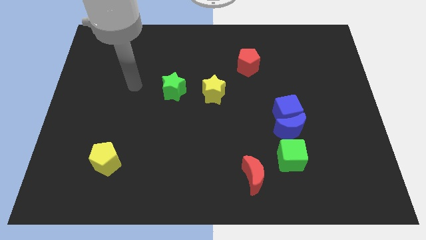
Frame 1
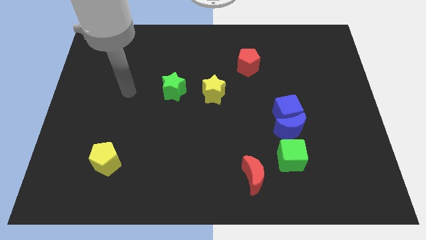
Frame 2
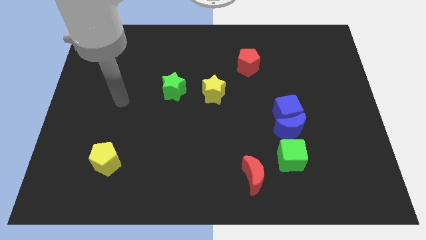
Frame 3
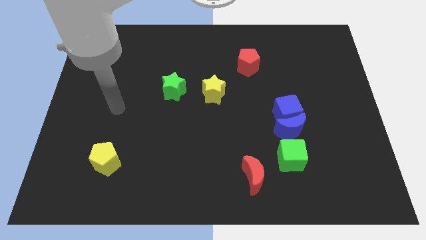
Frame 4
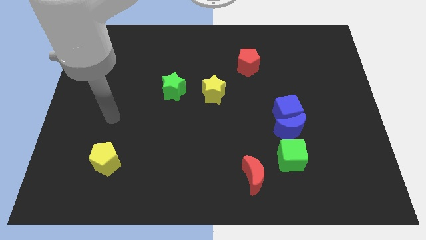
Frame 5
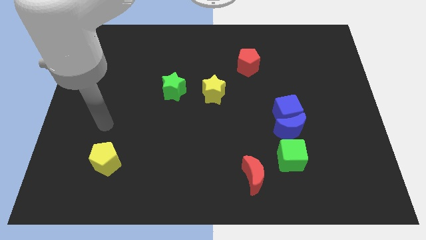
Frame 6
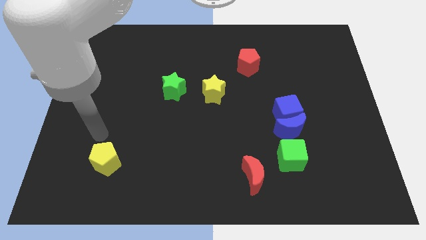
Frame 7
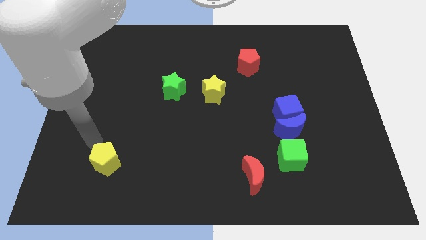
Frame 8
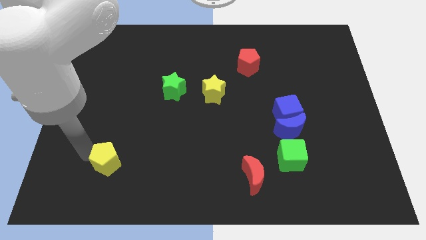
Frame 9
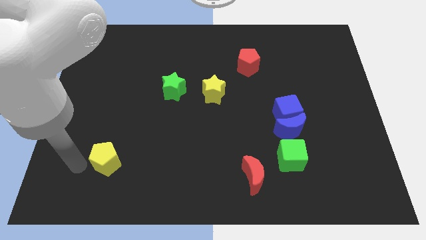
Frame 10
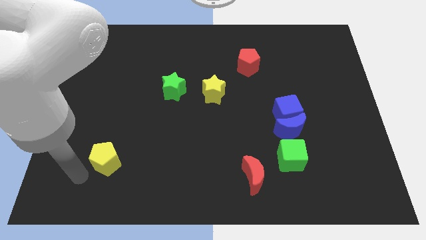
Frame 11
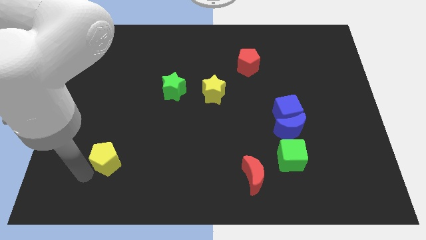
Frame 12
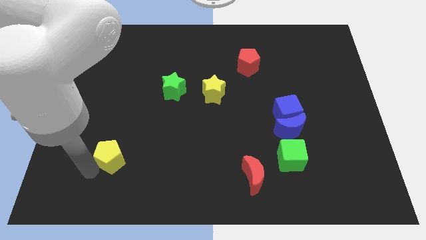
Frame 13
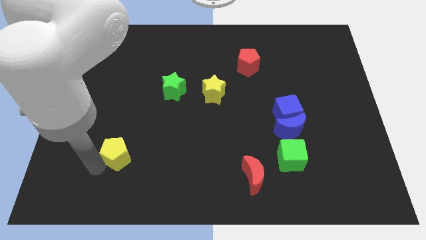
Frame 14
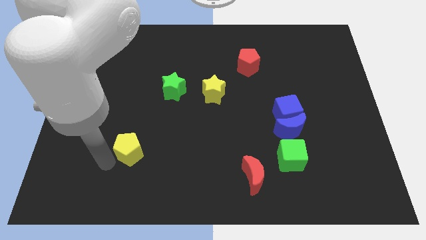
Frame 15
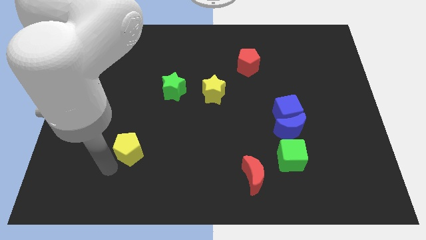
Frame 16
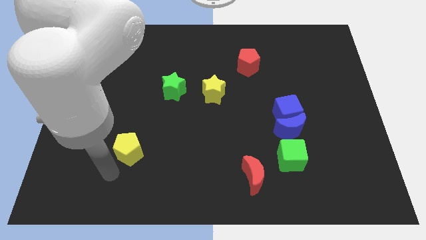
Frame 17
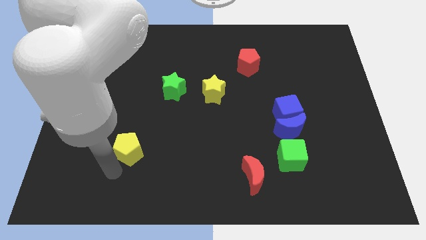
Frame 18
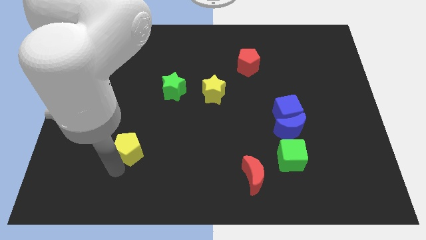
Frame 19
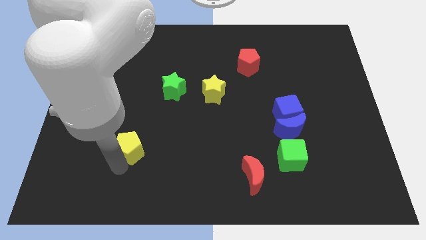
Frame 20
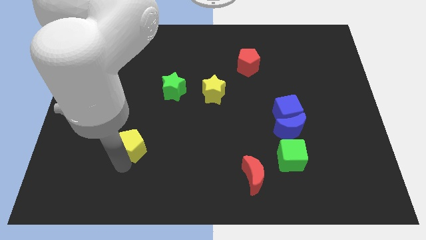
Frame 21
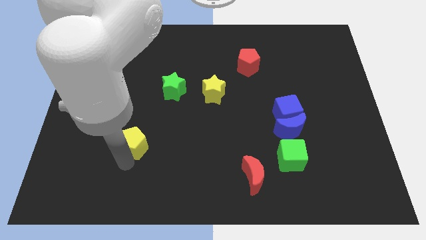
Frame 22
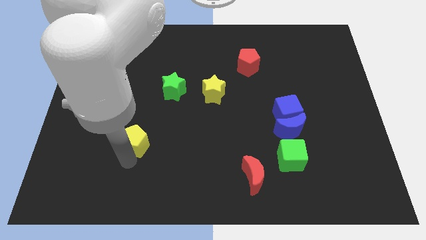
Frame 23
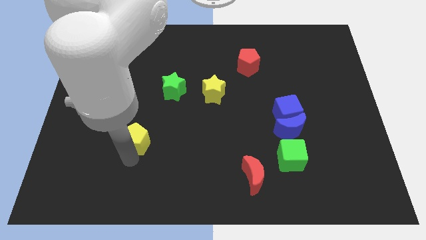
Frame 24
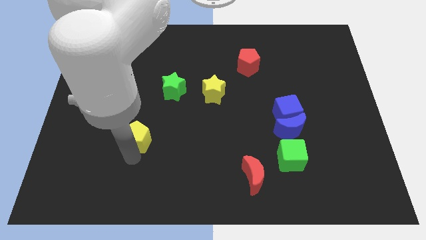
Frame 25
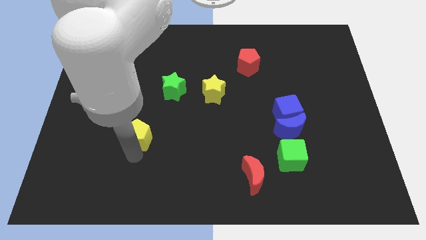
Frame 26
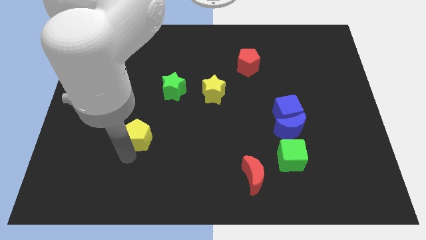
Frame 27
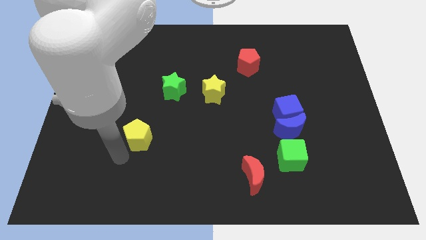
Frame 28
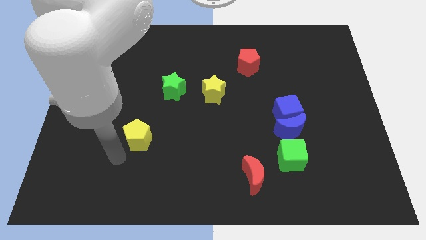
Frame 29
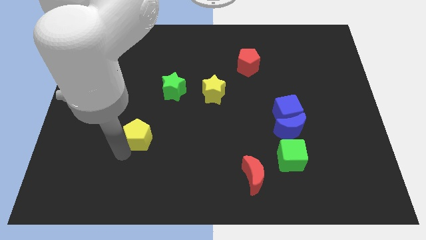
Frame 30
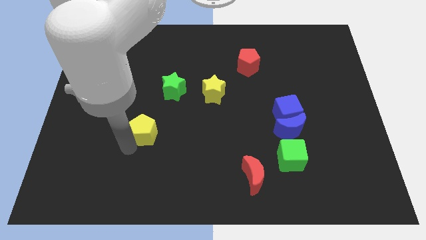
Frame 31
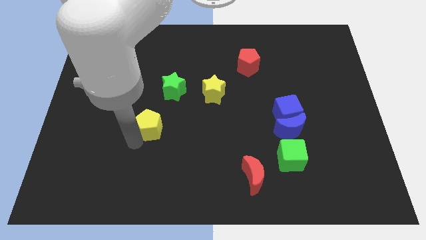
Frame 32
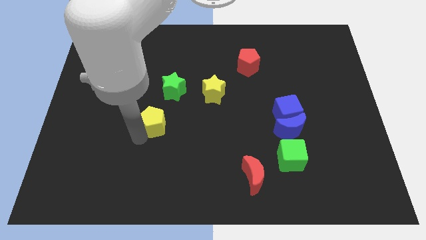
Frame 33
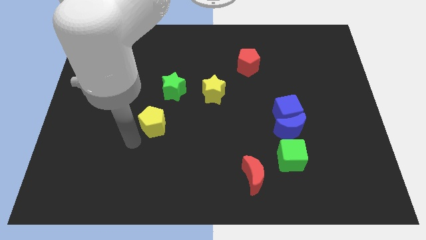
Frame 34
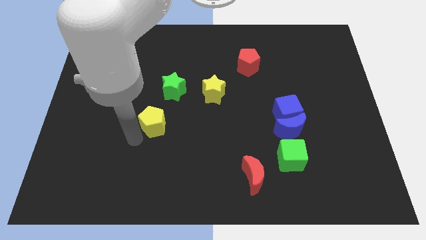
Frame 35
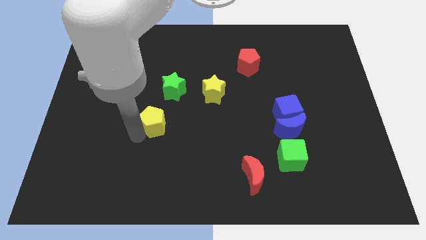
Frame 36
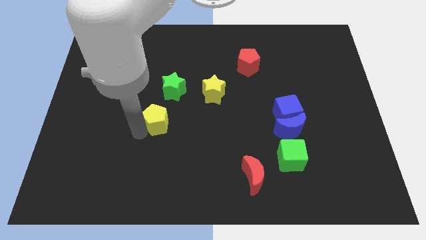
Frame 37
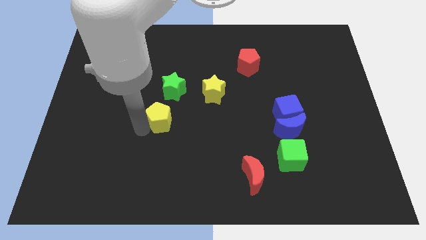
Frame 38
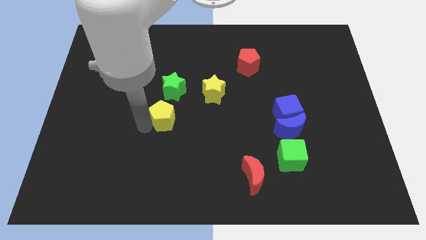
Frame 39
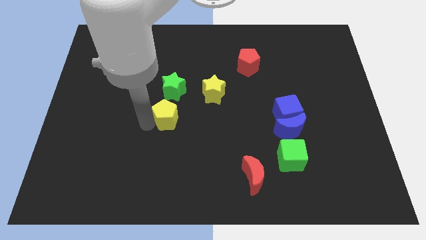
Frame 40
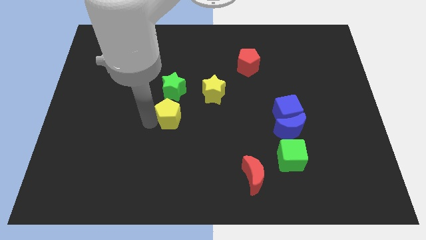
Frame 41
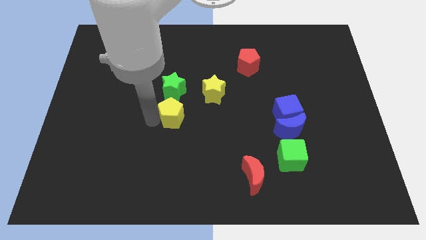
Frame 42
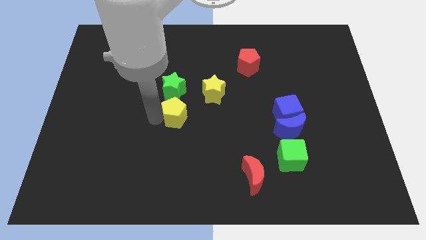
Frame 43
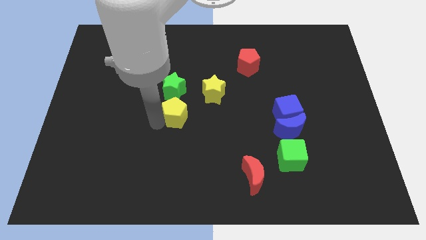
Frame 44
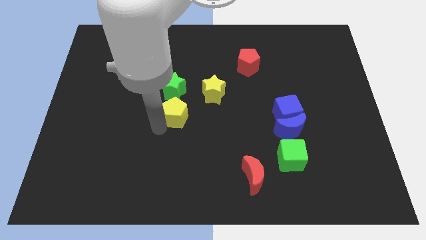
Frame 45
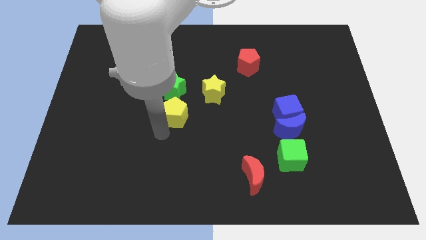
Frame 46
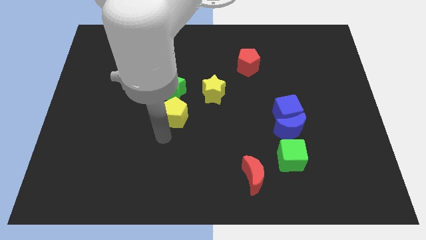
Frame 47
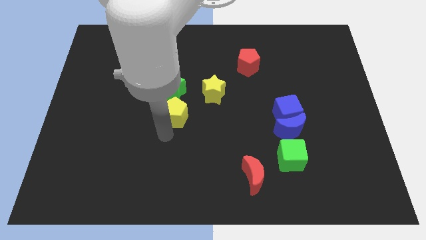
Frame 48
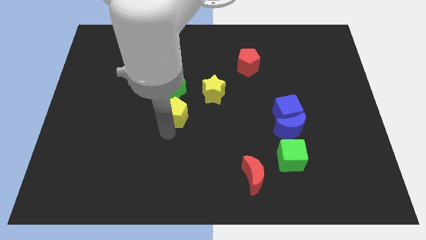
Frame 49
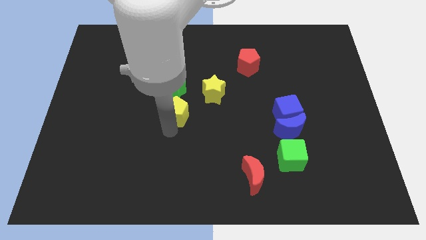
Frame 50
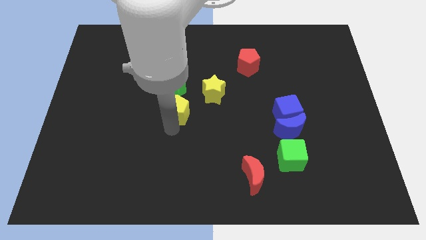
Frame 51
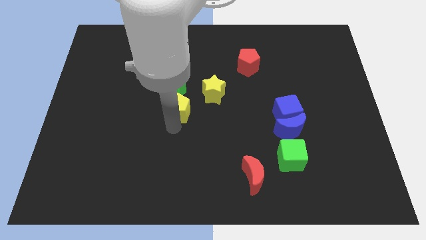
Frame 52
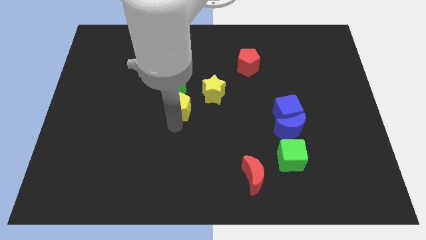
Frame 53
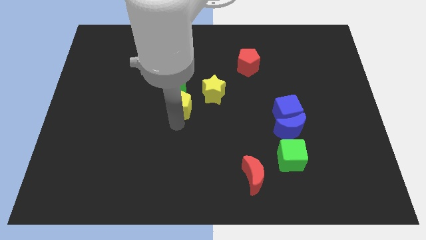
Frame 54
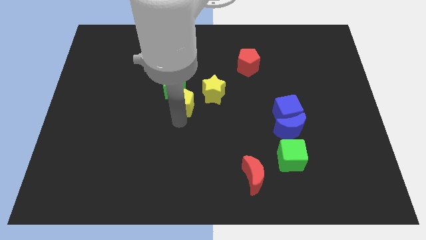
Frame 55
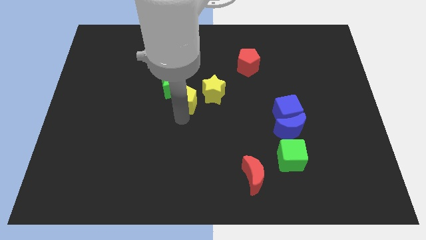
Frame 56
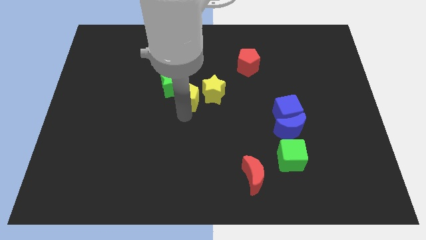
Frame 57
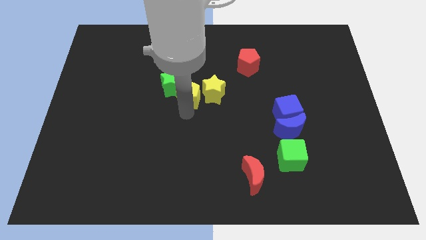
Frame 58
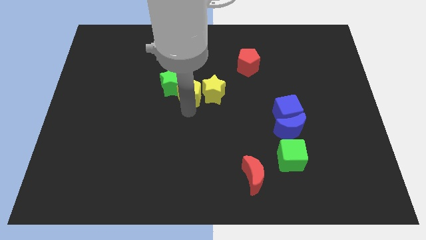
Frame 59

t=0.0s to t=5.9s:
move the yellow pentagon diagonally up and to the left of the yellow star

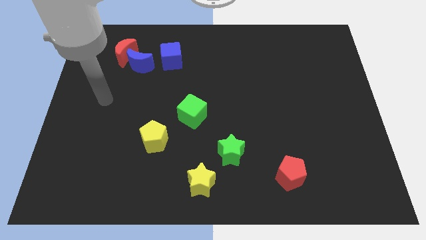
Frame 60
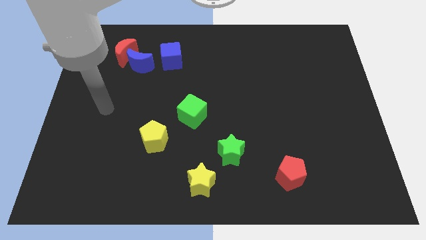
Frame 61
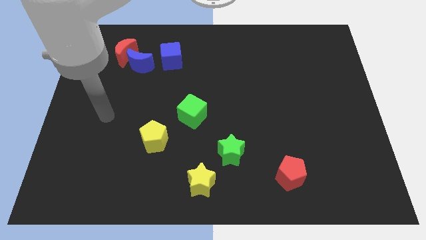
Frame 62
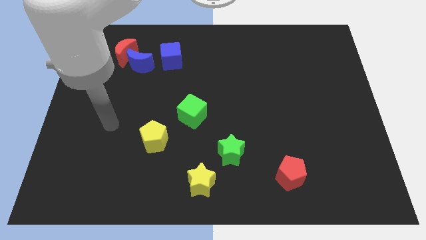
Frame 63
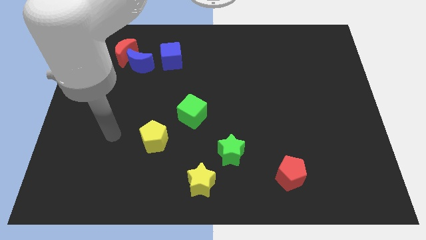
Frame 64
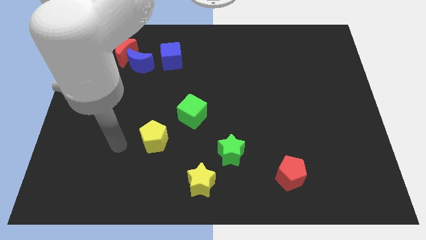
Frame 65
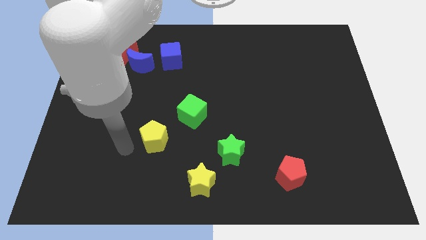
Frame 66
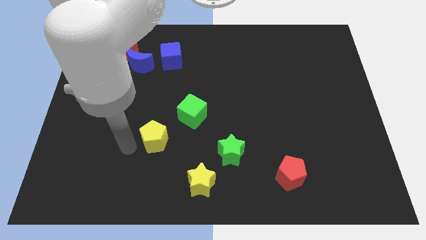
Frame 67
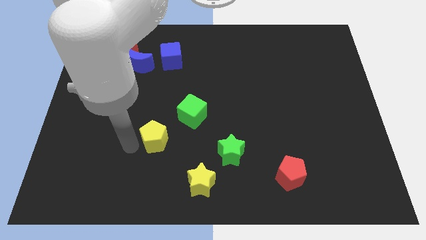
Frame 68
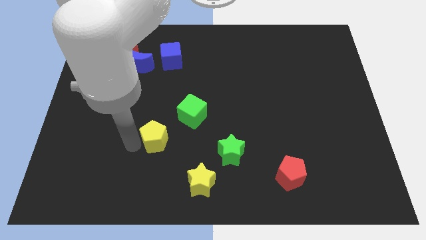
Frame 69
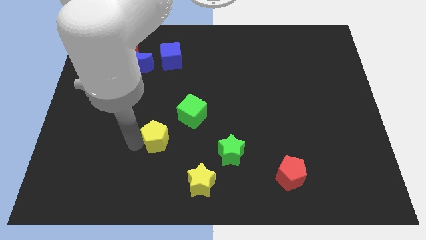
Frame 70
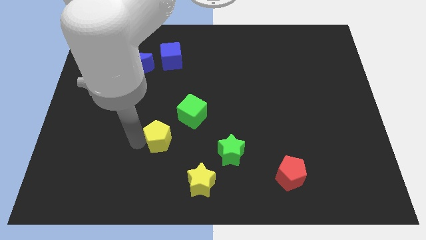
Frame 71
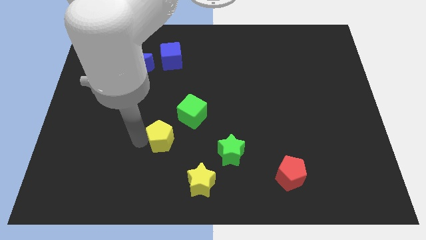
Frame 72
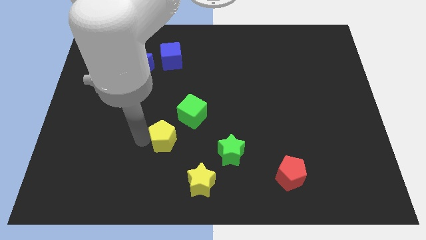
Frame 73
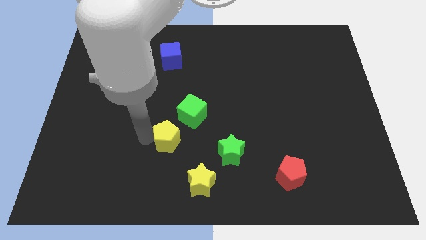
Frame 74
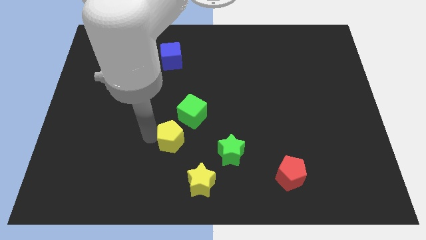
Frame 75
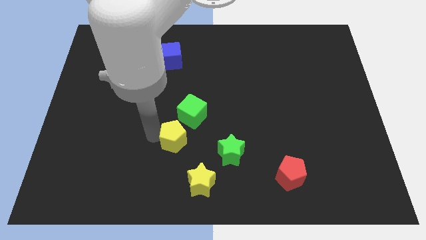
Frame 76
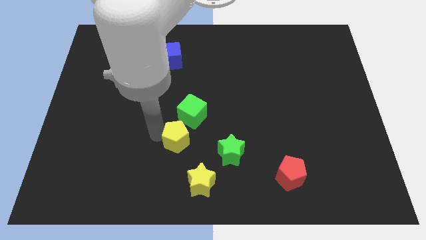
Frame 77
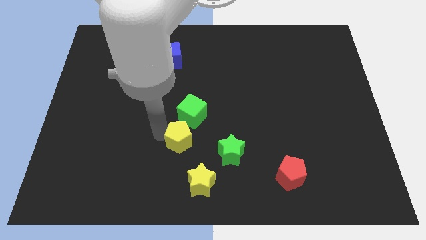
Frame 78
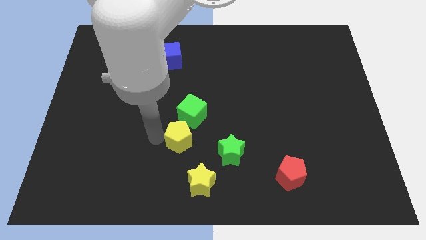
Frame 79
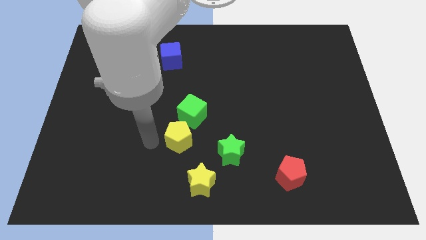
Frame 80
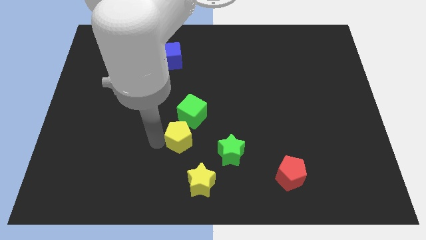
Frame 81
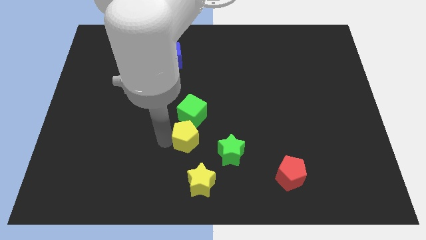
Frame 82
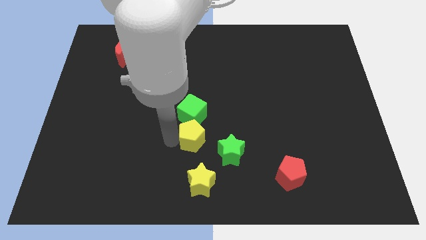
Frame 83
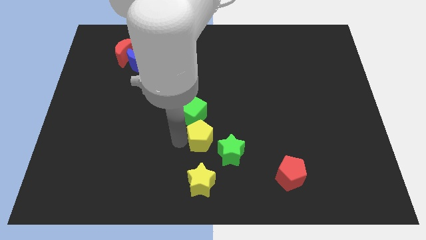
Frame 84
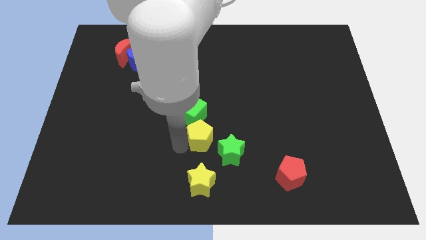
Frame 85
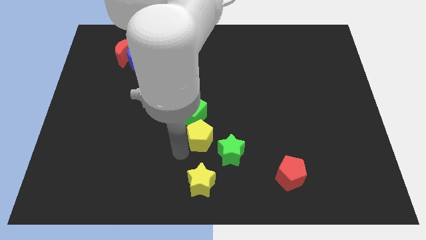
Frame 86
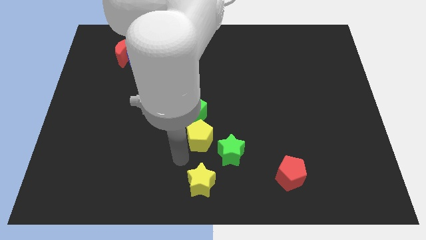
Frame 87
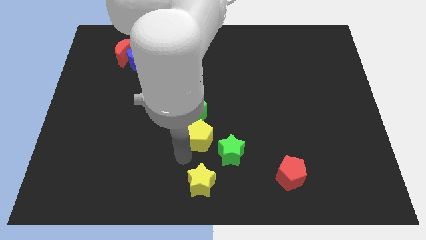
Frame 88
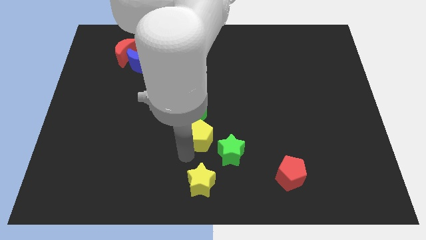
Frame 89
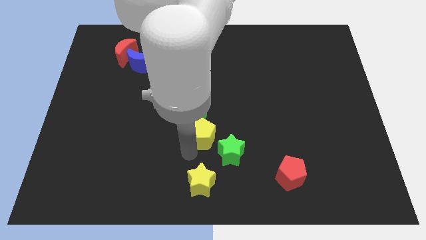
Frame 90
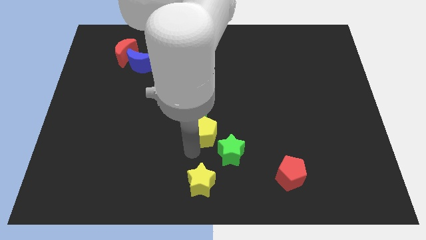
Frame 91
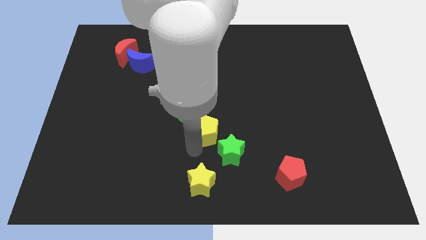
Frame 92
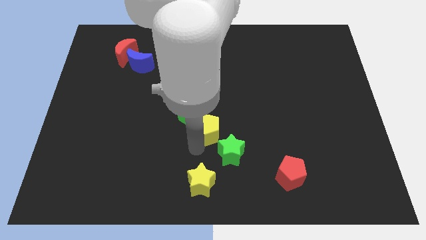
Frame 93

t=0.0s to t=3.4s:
push the yellow pentagon to the top of the green star
